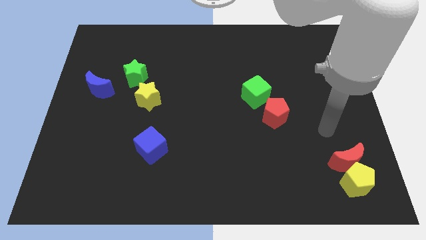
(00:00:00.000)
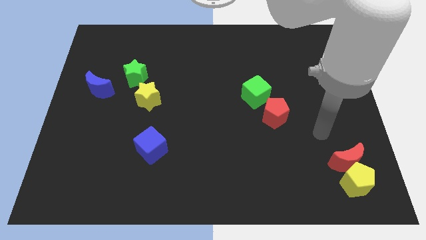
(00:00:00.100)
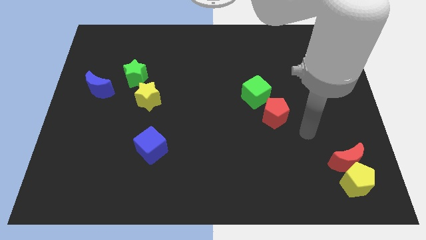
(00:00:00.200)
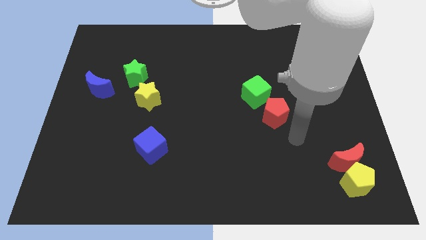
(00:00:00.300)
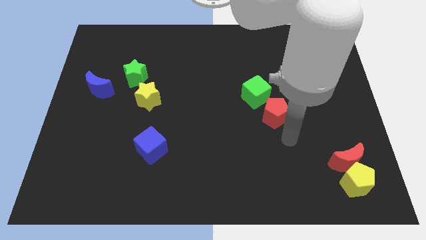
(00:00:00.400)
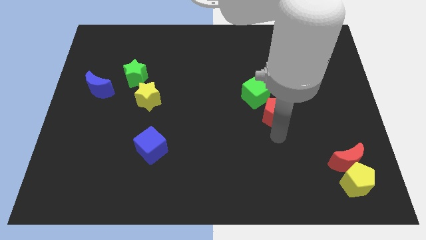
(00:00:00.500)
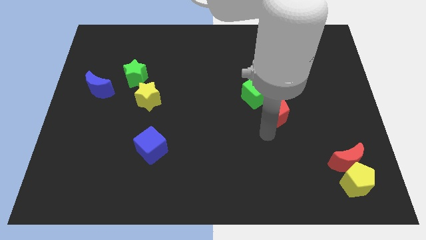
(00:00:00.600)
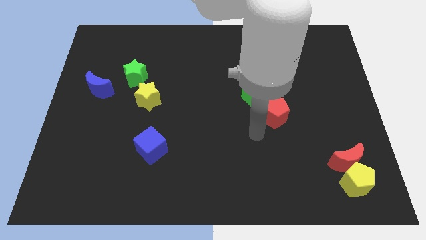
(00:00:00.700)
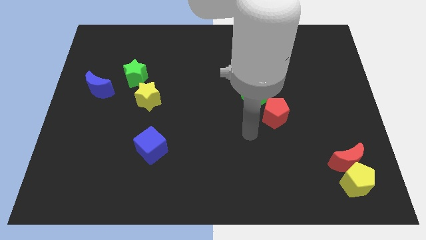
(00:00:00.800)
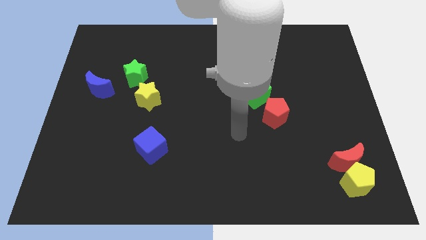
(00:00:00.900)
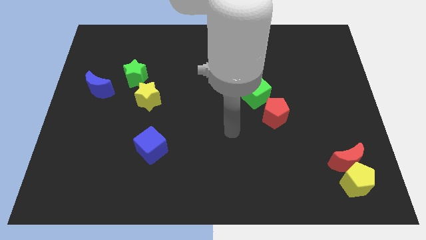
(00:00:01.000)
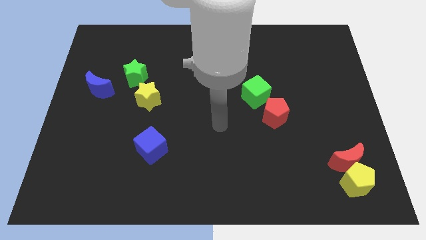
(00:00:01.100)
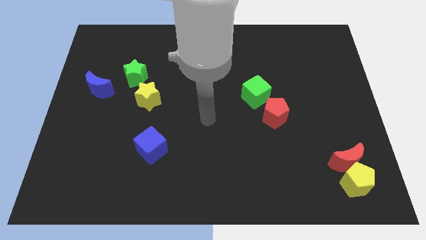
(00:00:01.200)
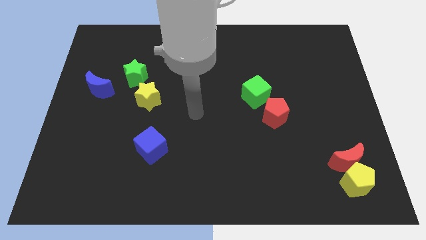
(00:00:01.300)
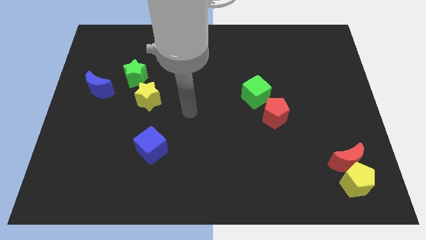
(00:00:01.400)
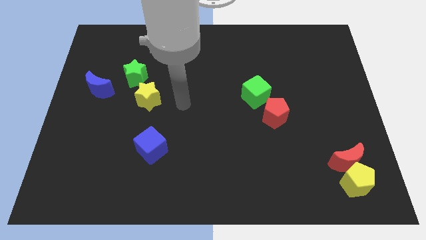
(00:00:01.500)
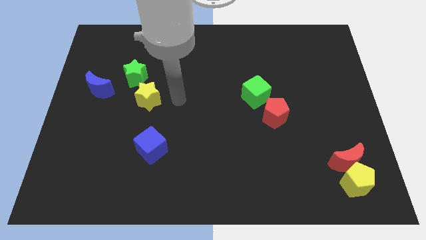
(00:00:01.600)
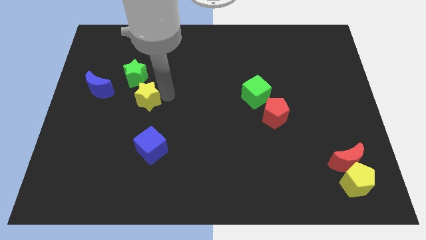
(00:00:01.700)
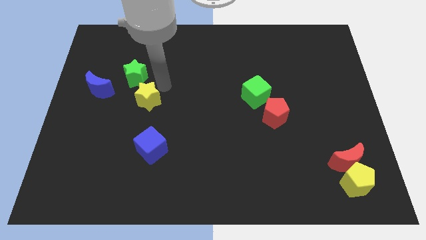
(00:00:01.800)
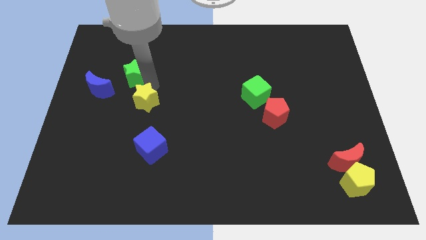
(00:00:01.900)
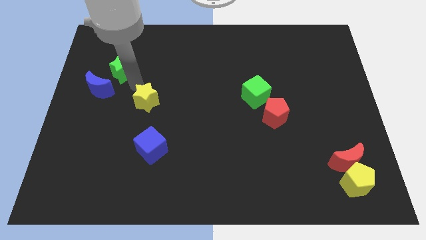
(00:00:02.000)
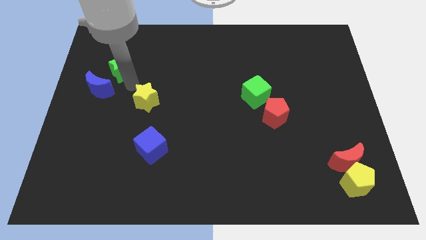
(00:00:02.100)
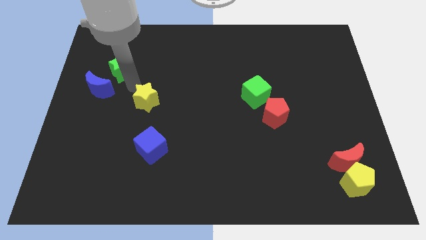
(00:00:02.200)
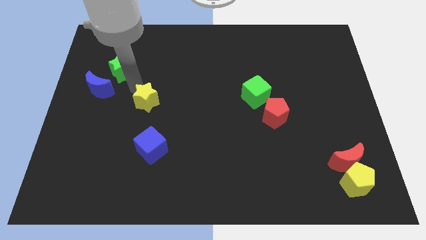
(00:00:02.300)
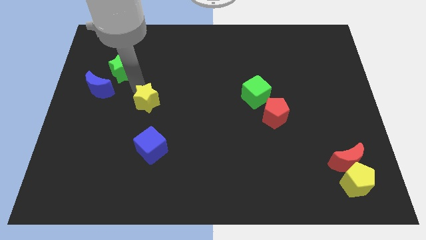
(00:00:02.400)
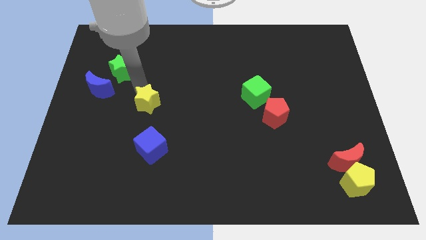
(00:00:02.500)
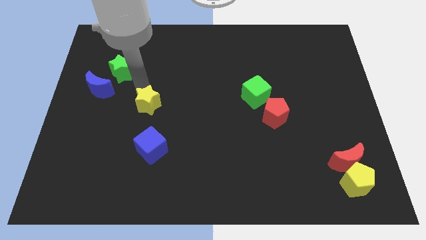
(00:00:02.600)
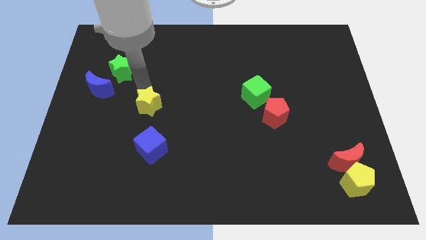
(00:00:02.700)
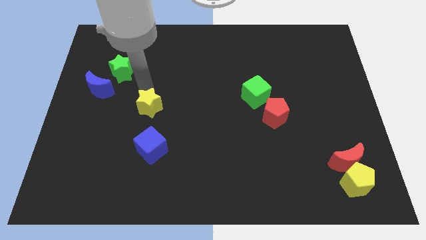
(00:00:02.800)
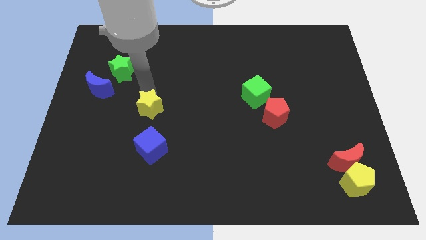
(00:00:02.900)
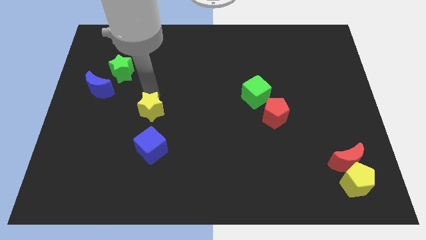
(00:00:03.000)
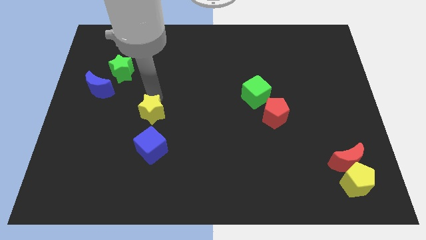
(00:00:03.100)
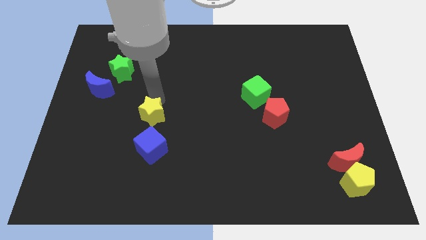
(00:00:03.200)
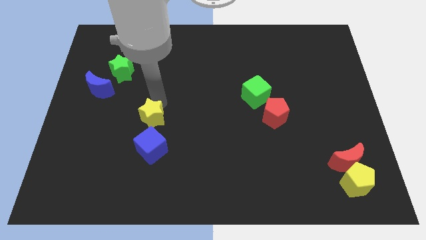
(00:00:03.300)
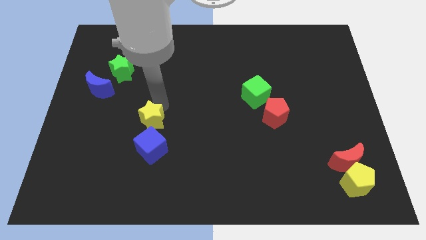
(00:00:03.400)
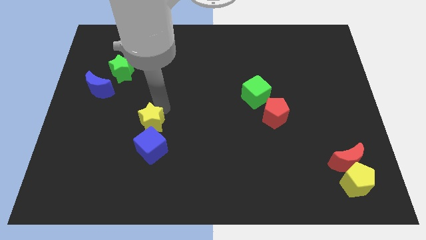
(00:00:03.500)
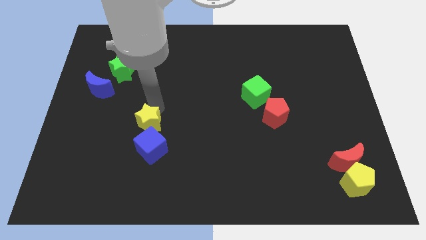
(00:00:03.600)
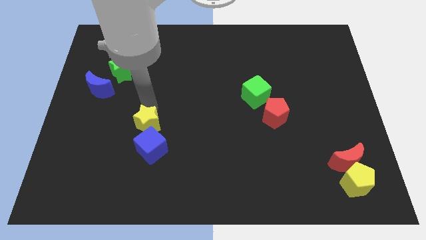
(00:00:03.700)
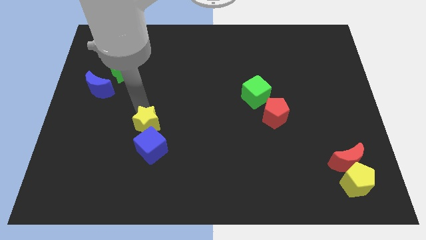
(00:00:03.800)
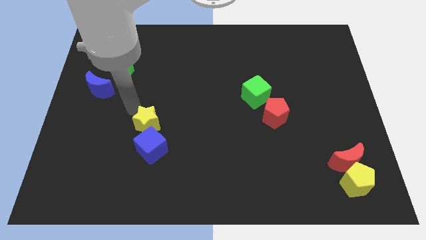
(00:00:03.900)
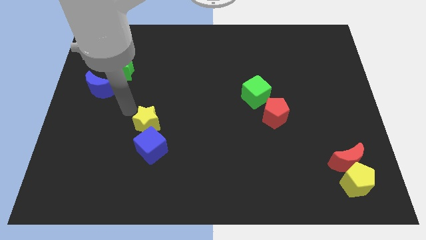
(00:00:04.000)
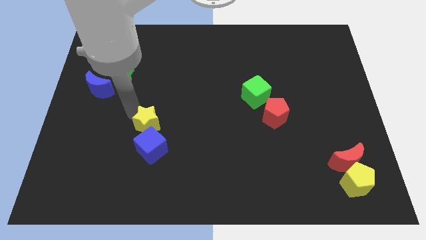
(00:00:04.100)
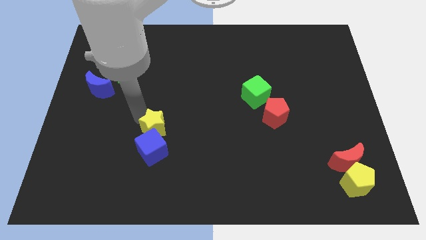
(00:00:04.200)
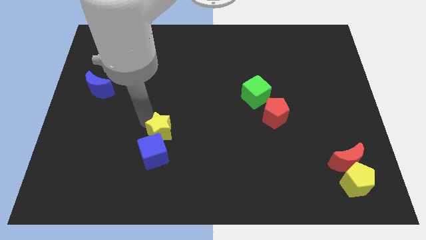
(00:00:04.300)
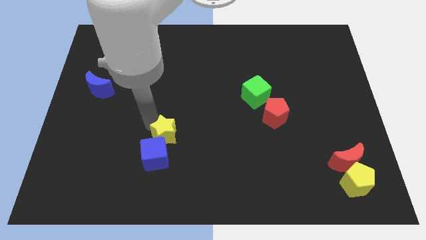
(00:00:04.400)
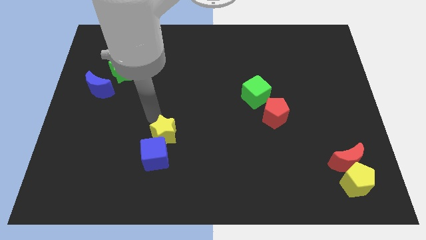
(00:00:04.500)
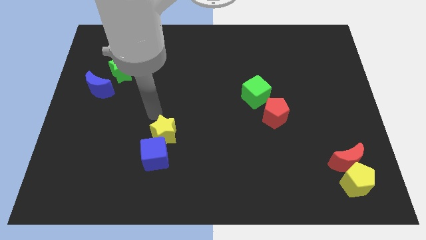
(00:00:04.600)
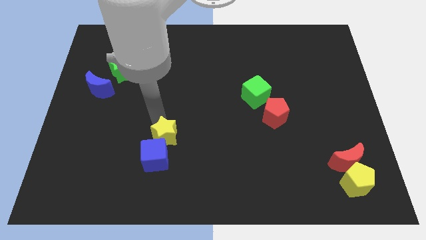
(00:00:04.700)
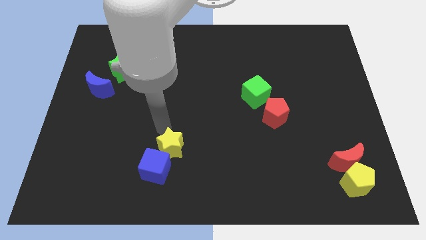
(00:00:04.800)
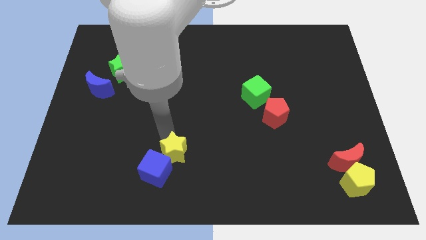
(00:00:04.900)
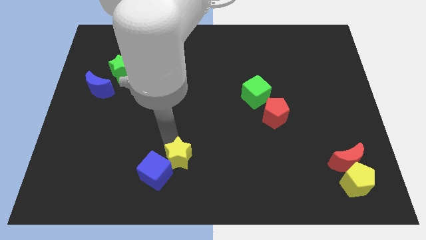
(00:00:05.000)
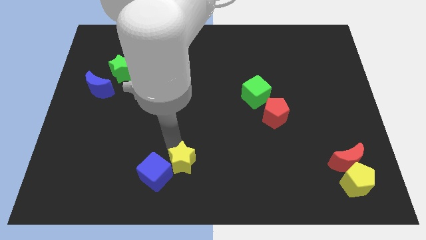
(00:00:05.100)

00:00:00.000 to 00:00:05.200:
push the yellow star to the bottom

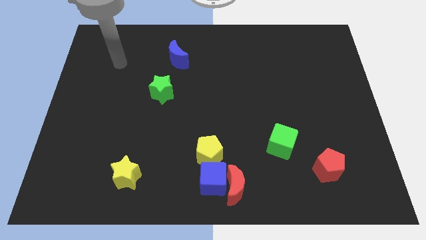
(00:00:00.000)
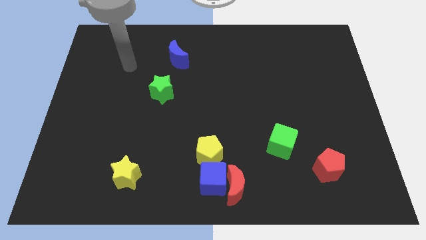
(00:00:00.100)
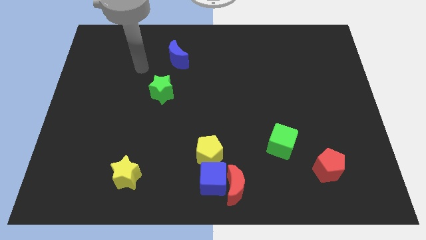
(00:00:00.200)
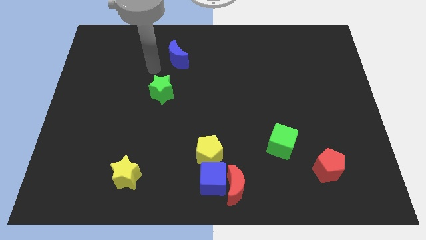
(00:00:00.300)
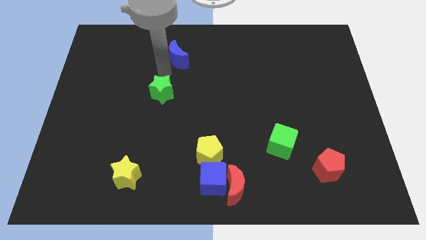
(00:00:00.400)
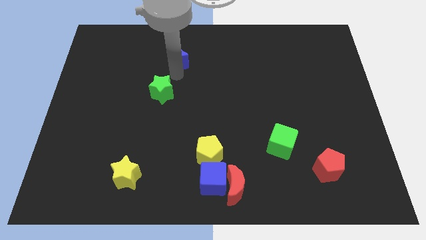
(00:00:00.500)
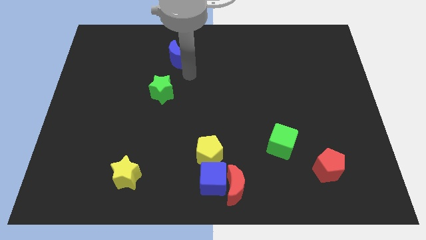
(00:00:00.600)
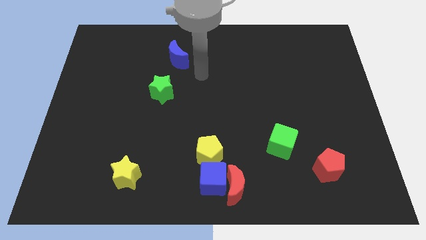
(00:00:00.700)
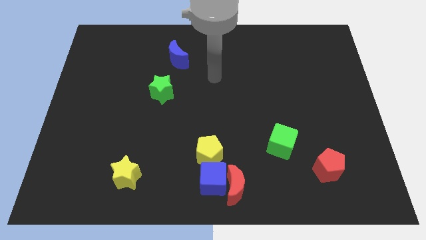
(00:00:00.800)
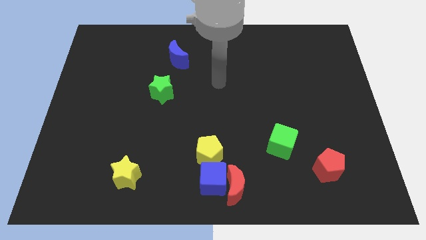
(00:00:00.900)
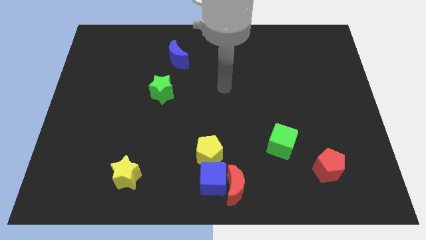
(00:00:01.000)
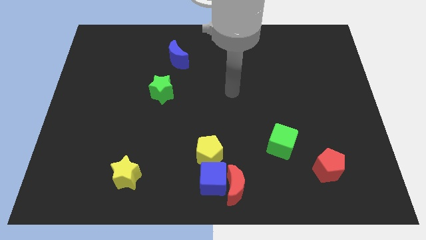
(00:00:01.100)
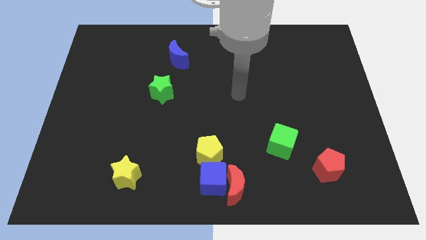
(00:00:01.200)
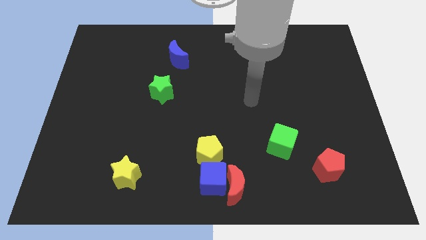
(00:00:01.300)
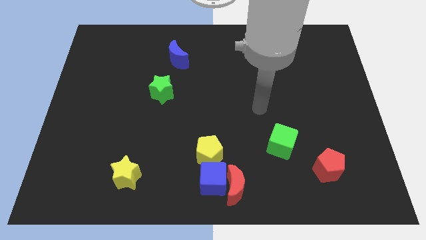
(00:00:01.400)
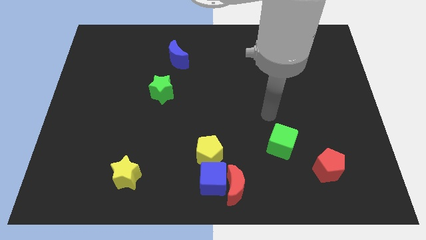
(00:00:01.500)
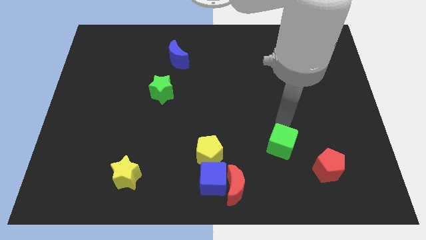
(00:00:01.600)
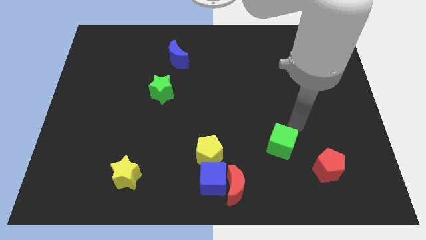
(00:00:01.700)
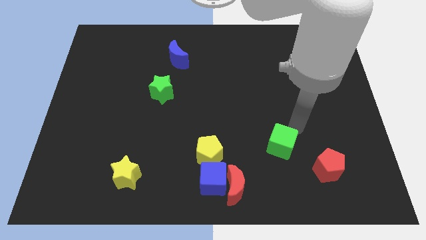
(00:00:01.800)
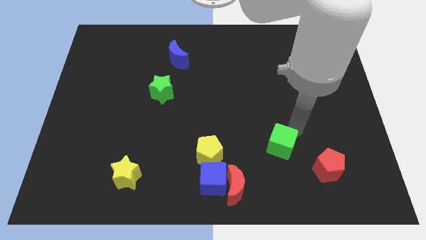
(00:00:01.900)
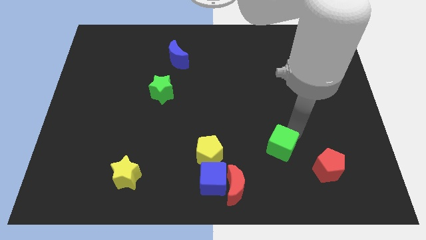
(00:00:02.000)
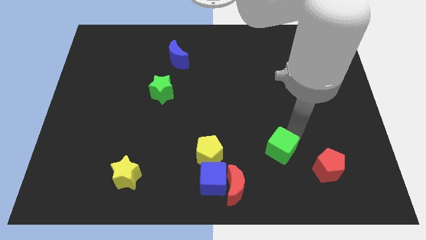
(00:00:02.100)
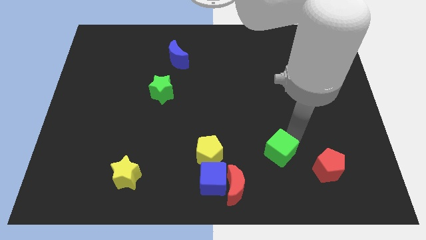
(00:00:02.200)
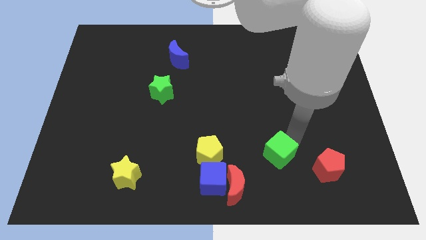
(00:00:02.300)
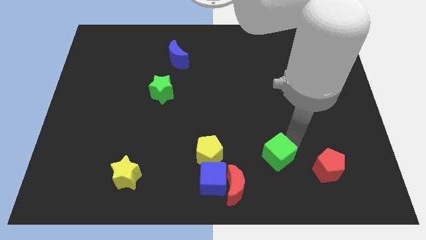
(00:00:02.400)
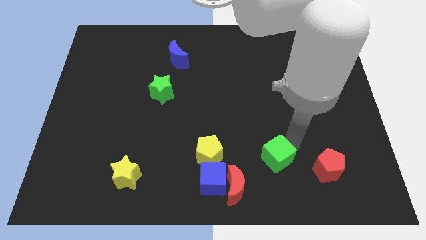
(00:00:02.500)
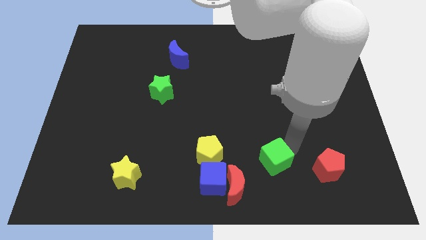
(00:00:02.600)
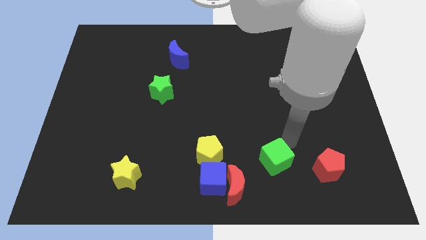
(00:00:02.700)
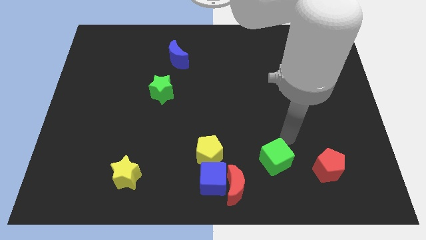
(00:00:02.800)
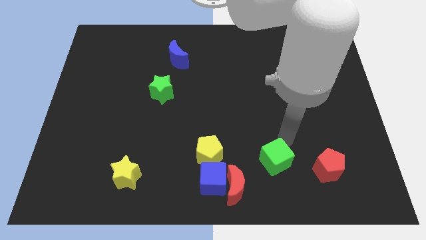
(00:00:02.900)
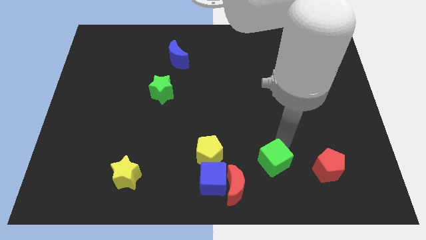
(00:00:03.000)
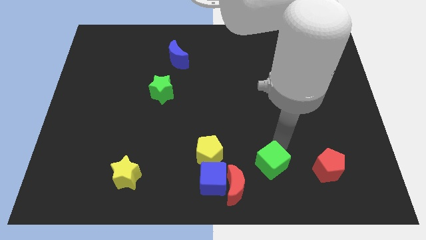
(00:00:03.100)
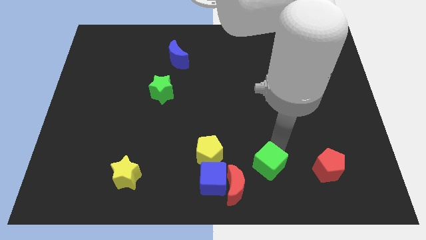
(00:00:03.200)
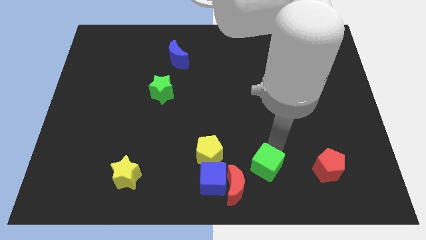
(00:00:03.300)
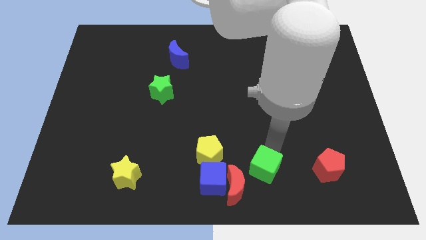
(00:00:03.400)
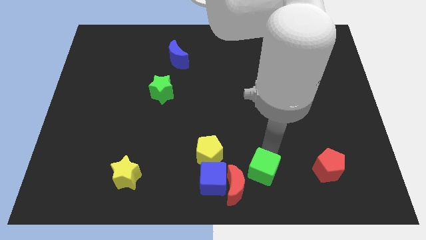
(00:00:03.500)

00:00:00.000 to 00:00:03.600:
put the green cube to the bottom side
